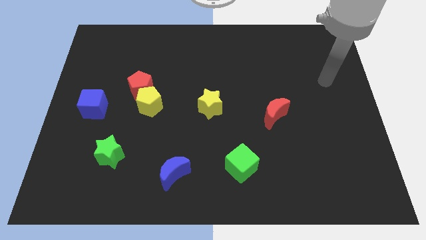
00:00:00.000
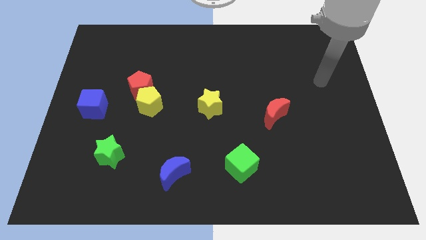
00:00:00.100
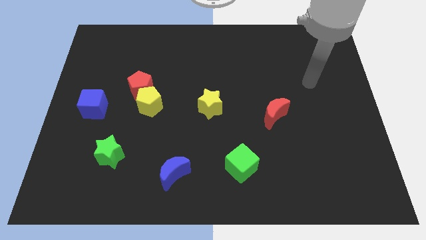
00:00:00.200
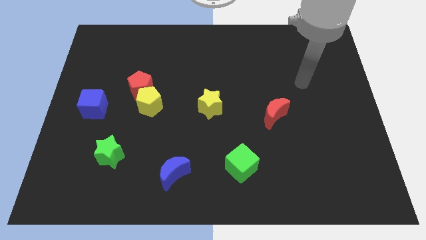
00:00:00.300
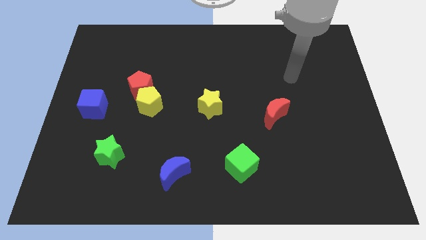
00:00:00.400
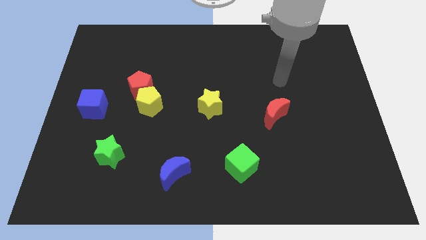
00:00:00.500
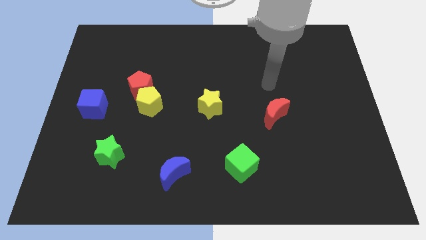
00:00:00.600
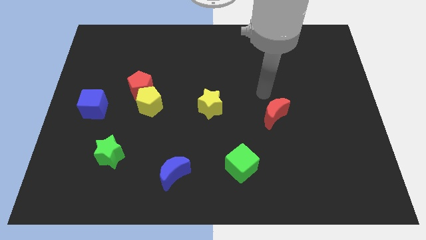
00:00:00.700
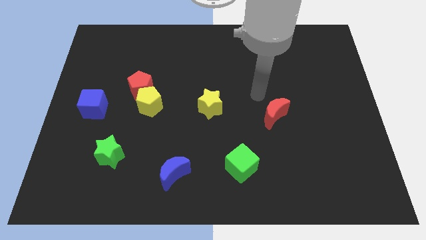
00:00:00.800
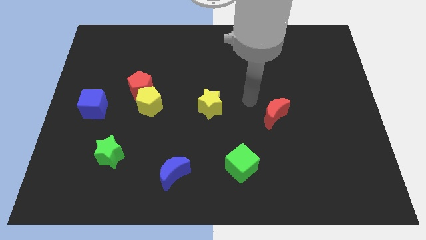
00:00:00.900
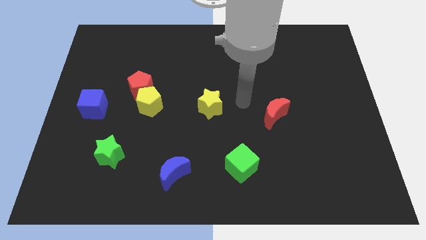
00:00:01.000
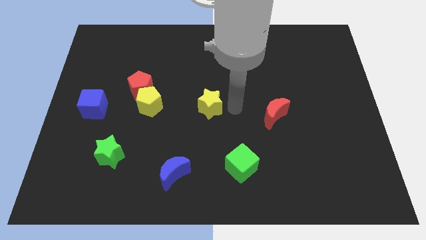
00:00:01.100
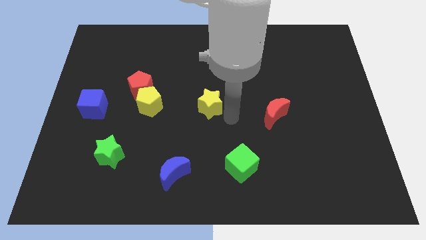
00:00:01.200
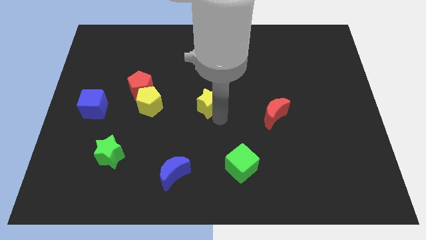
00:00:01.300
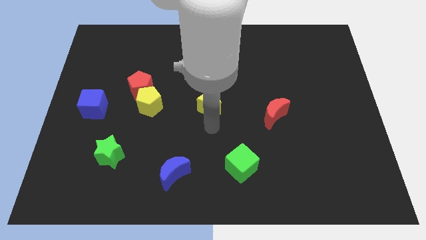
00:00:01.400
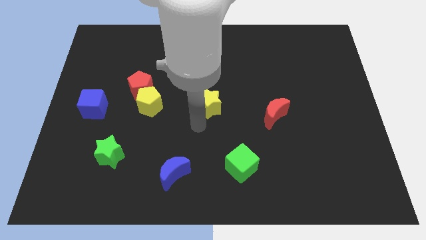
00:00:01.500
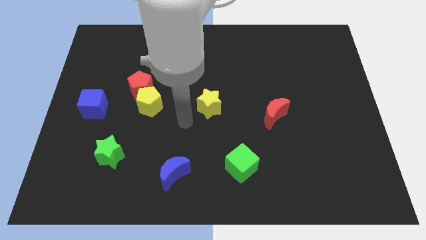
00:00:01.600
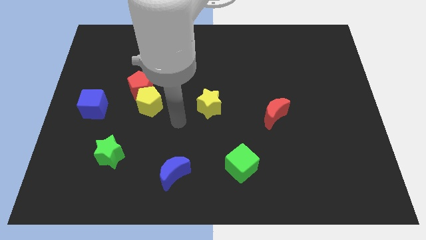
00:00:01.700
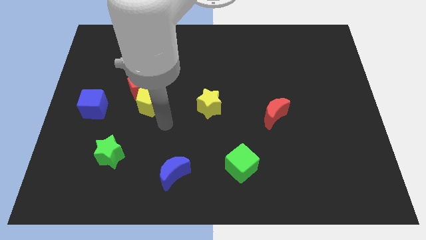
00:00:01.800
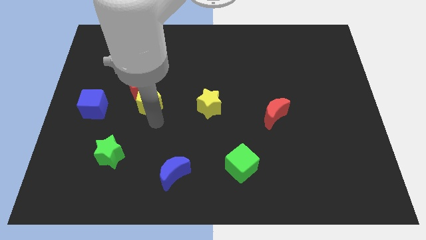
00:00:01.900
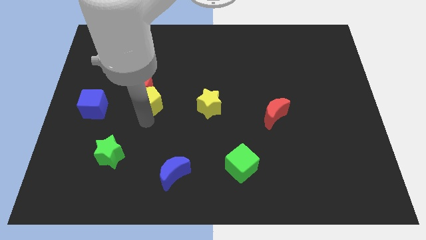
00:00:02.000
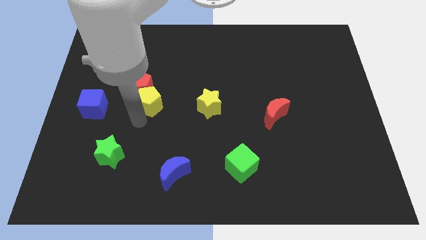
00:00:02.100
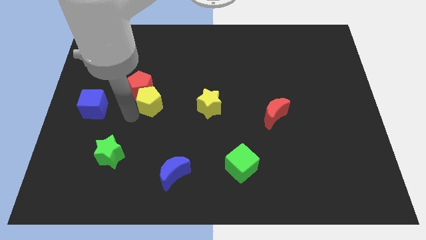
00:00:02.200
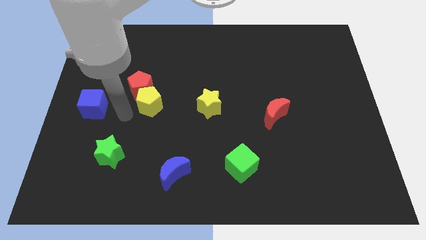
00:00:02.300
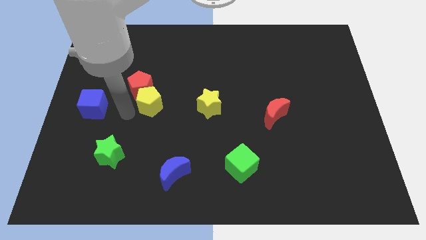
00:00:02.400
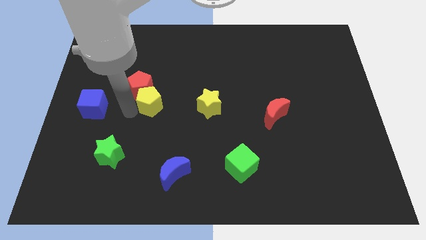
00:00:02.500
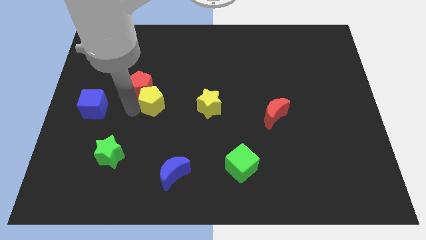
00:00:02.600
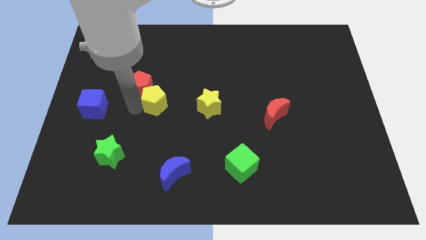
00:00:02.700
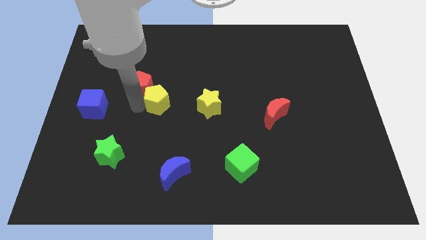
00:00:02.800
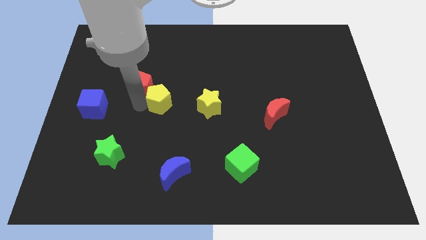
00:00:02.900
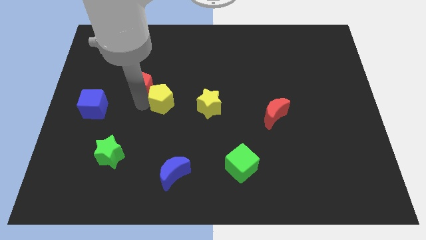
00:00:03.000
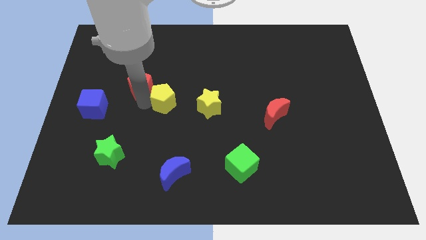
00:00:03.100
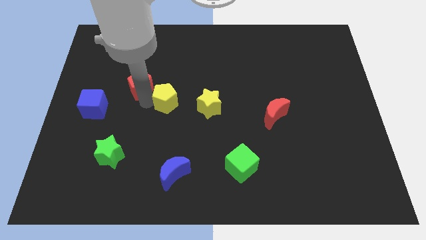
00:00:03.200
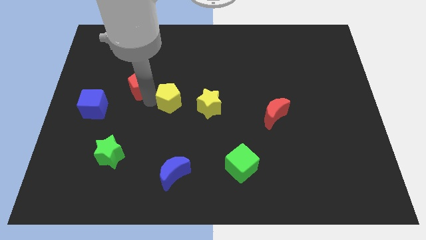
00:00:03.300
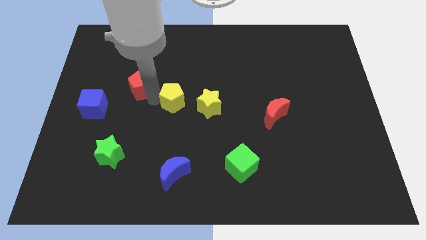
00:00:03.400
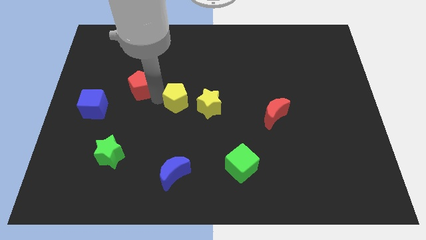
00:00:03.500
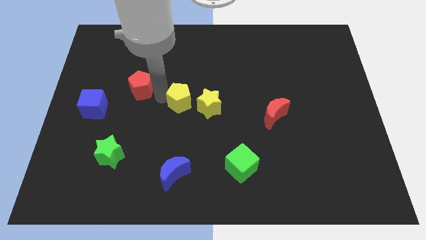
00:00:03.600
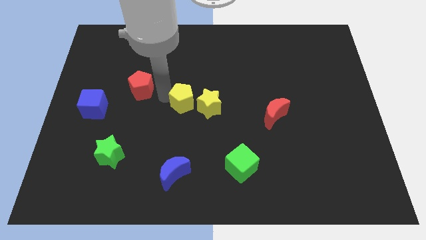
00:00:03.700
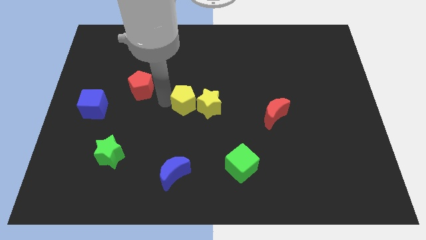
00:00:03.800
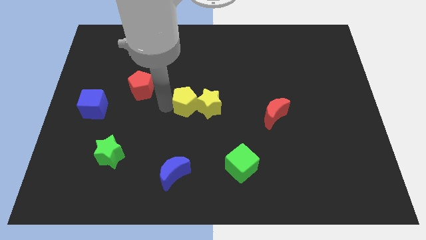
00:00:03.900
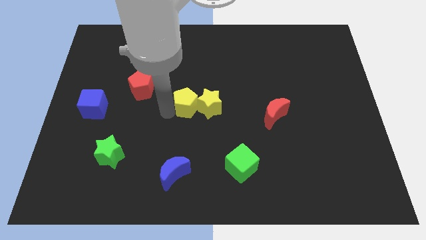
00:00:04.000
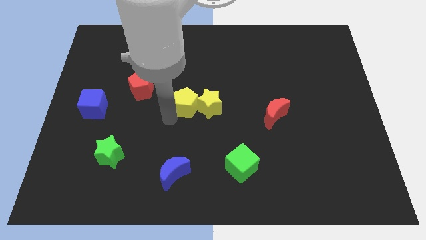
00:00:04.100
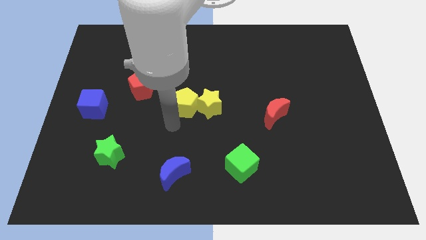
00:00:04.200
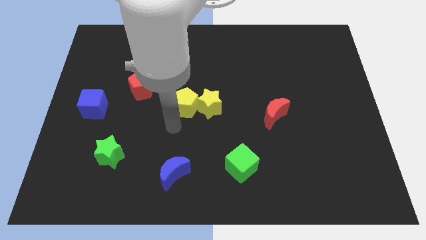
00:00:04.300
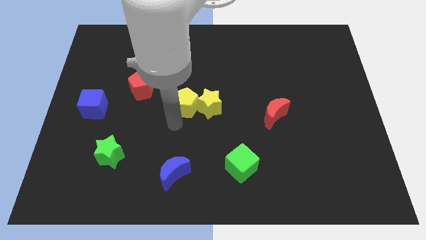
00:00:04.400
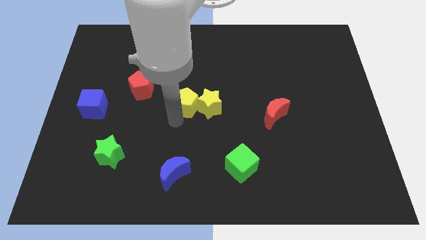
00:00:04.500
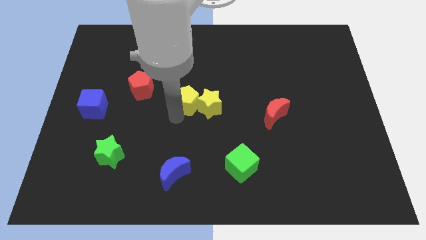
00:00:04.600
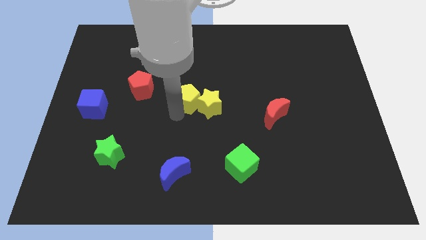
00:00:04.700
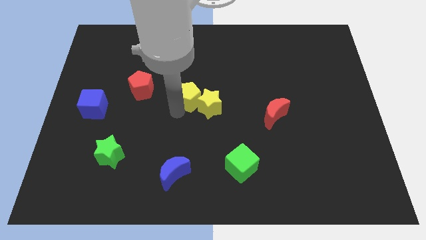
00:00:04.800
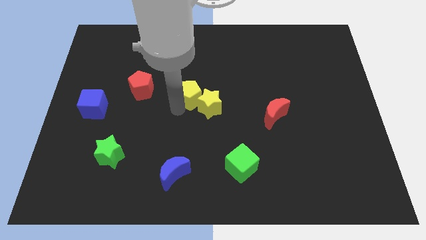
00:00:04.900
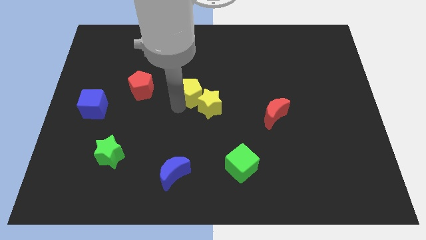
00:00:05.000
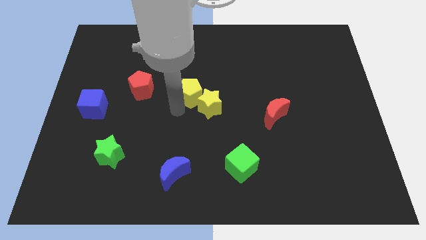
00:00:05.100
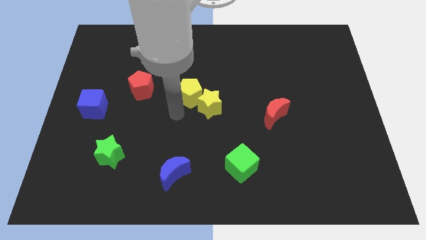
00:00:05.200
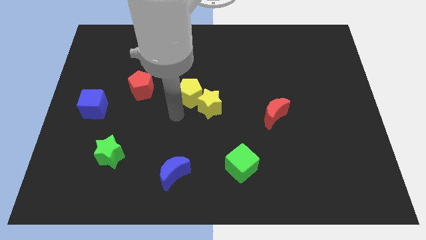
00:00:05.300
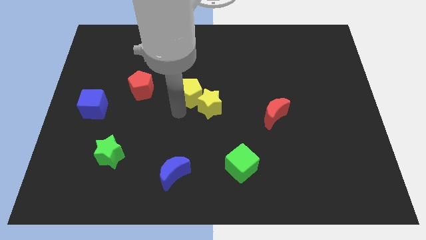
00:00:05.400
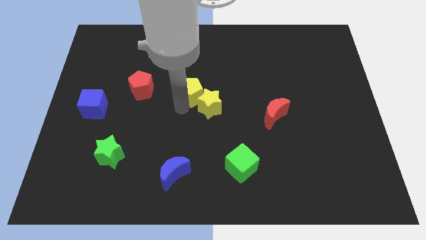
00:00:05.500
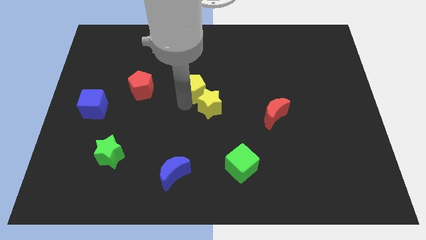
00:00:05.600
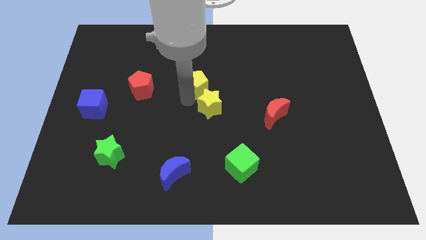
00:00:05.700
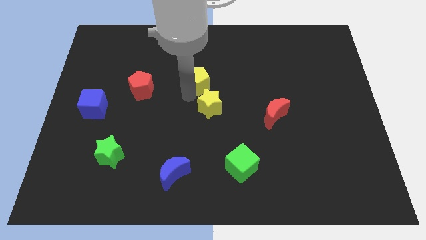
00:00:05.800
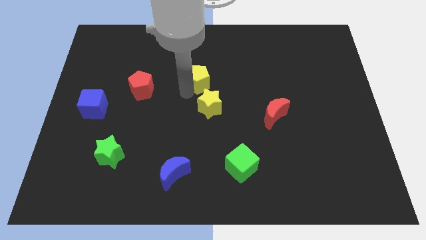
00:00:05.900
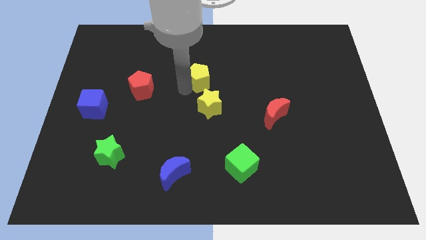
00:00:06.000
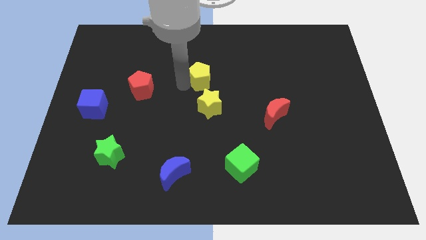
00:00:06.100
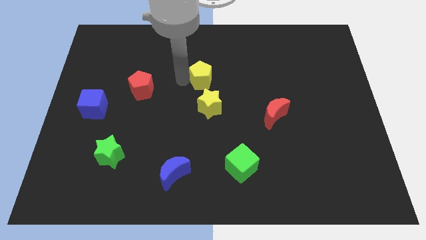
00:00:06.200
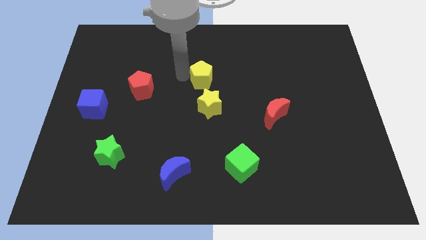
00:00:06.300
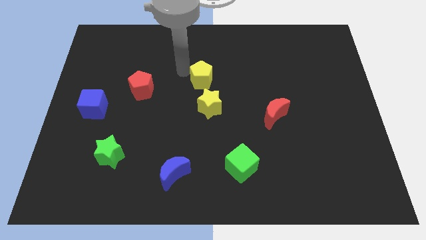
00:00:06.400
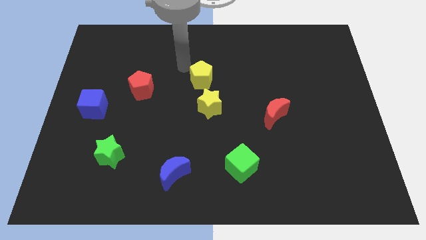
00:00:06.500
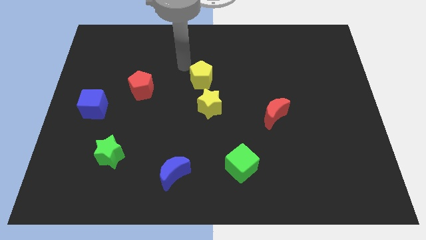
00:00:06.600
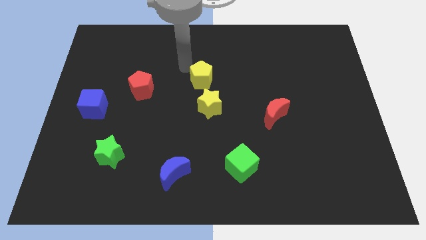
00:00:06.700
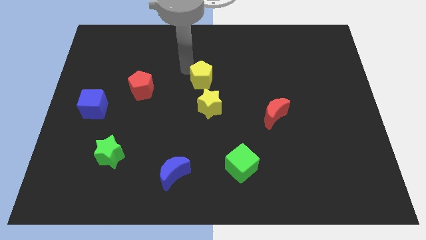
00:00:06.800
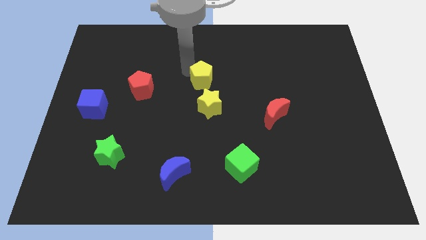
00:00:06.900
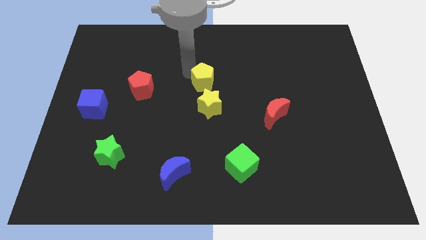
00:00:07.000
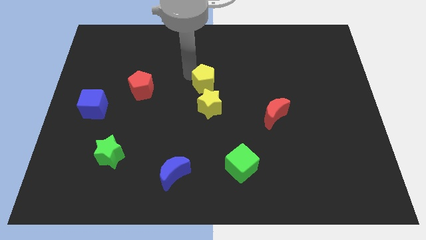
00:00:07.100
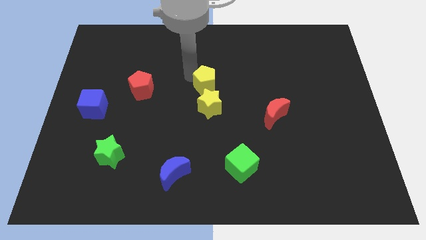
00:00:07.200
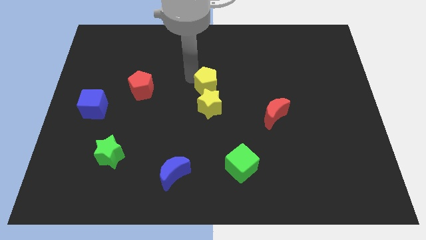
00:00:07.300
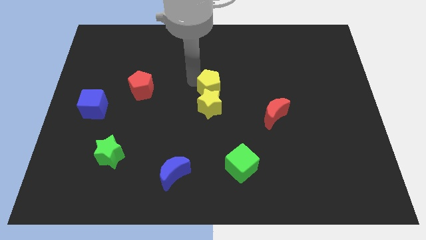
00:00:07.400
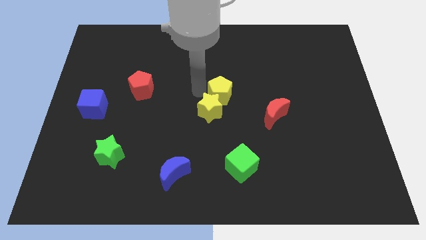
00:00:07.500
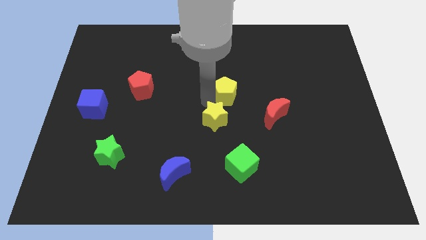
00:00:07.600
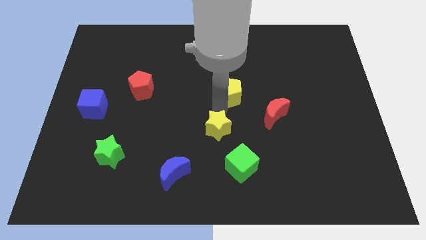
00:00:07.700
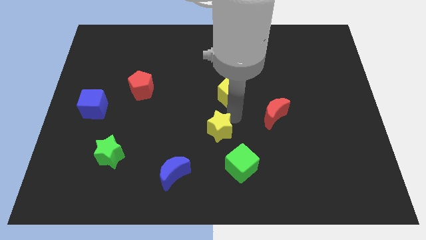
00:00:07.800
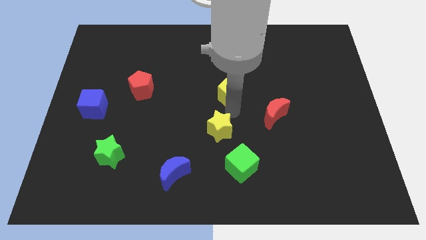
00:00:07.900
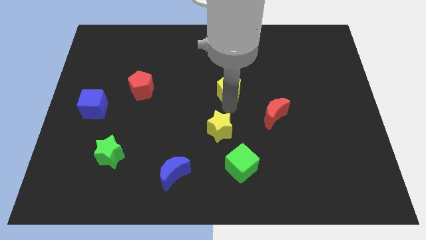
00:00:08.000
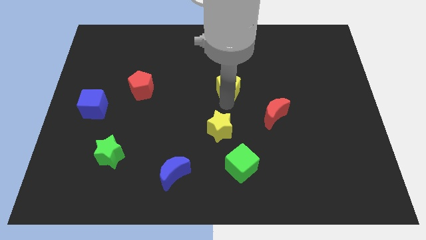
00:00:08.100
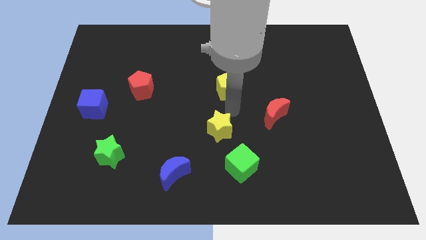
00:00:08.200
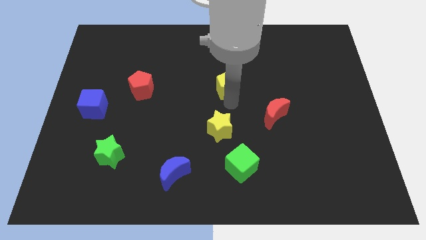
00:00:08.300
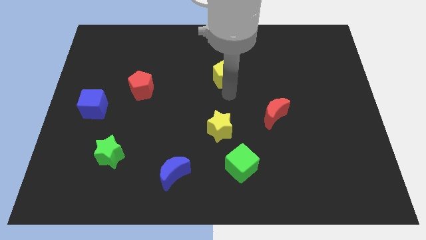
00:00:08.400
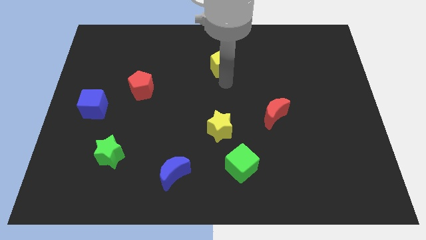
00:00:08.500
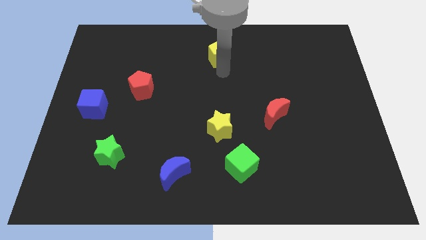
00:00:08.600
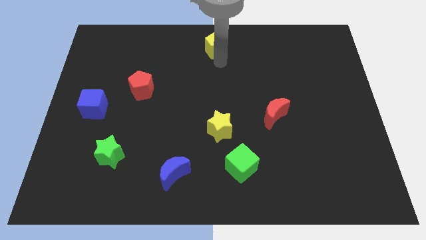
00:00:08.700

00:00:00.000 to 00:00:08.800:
move the yellow pentagon to the top side
